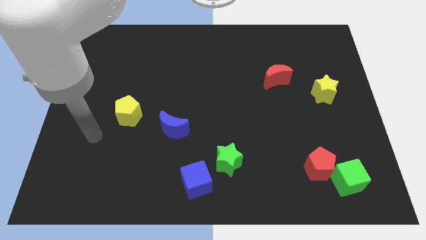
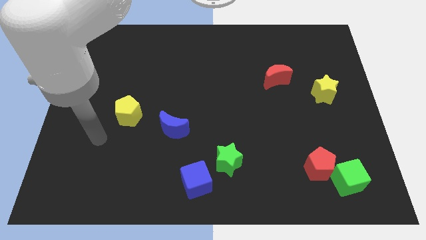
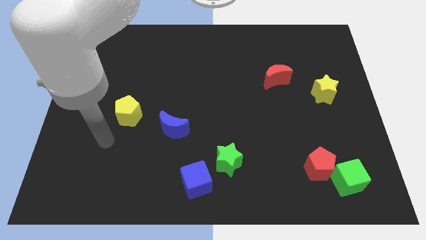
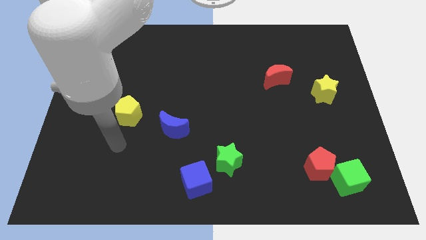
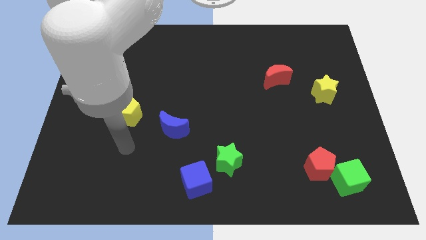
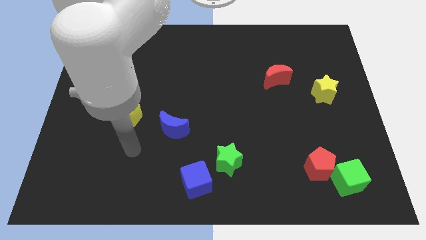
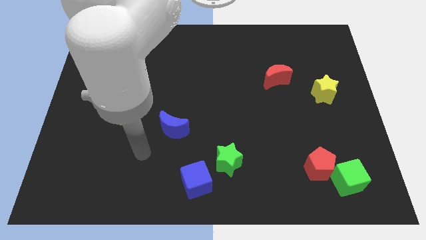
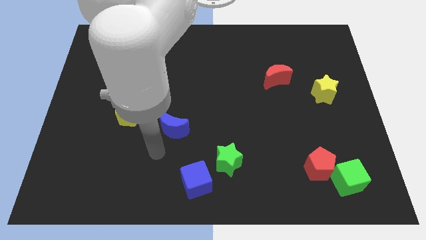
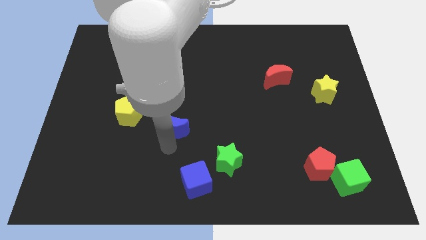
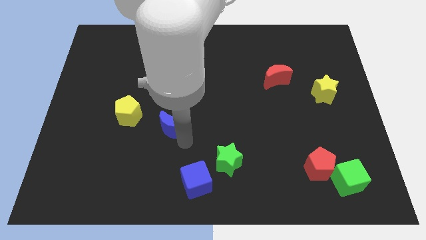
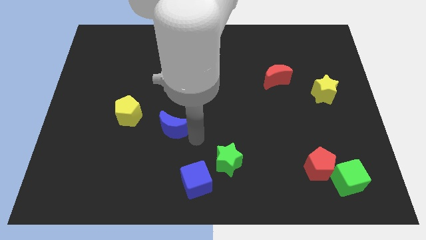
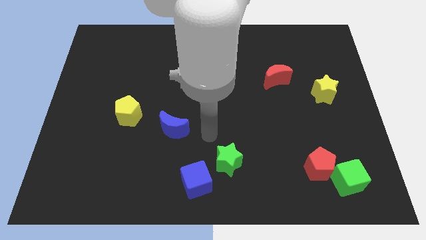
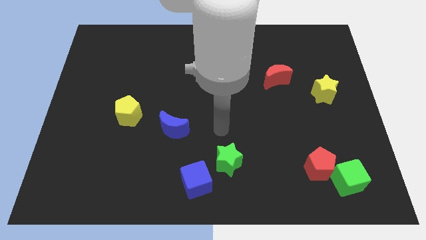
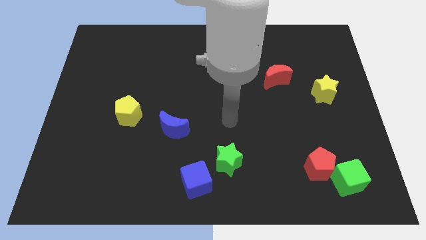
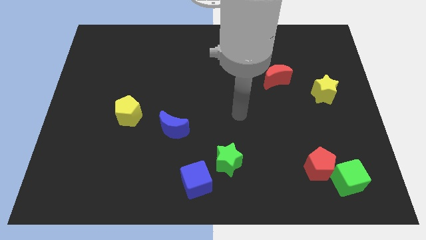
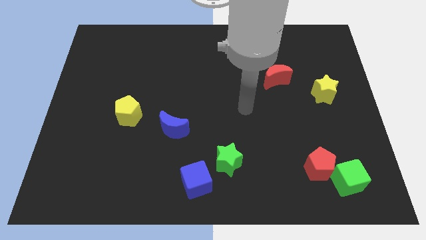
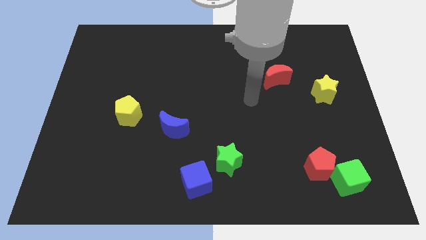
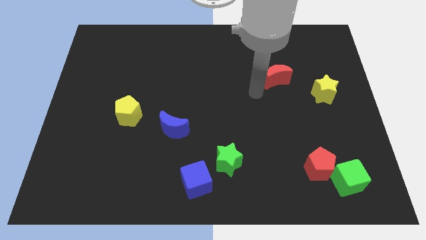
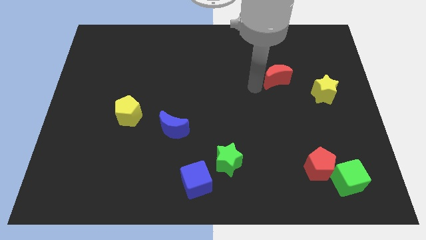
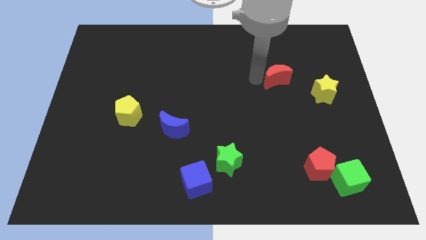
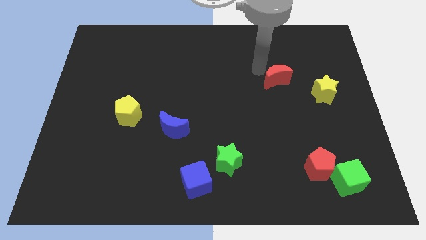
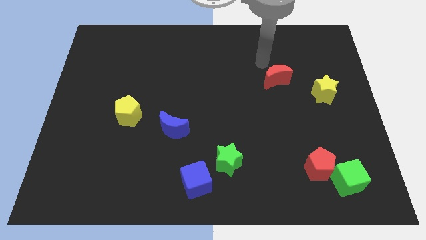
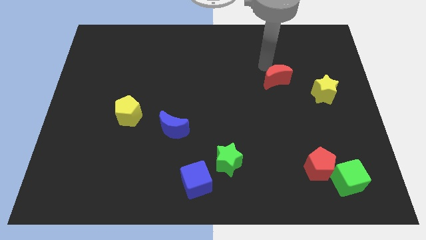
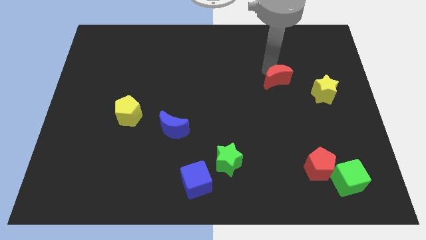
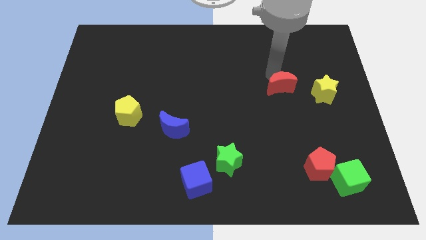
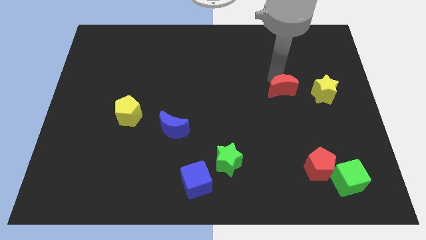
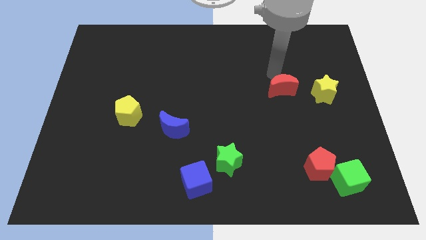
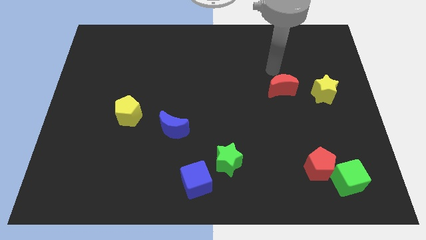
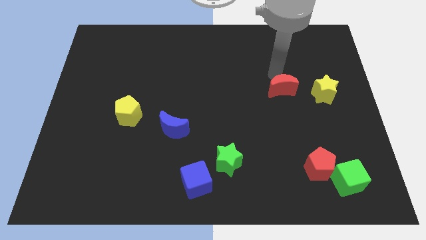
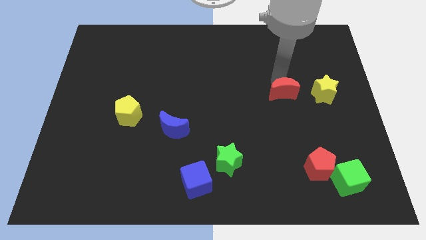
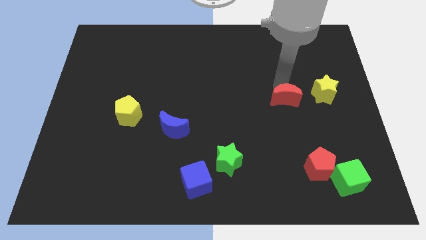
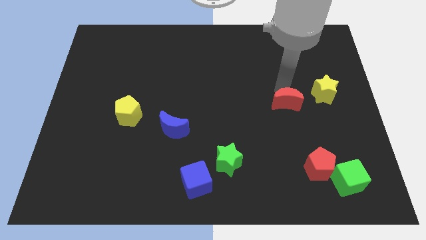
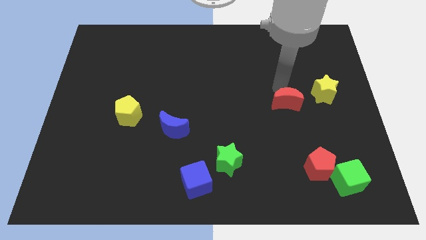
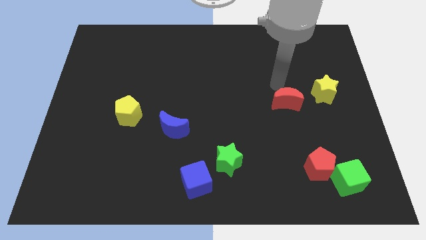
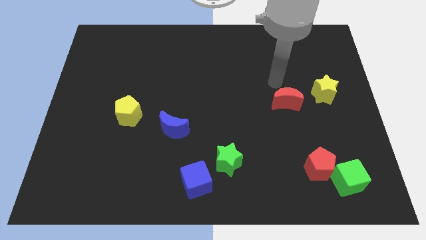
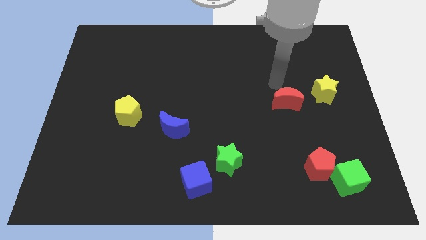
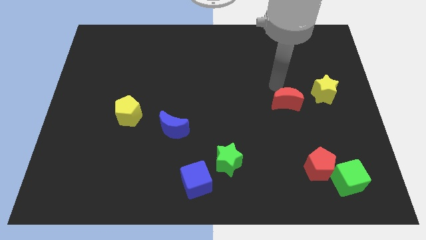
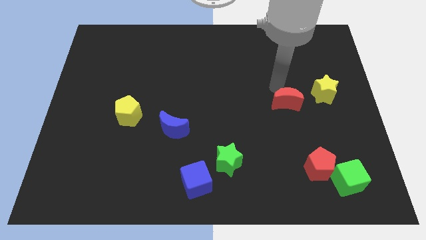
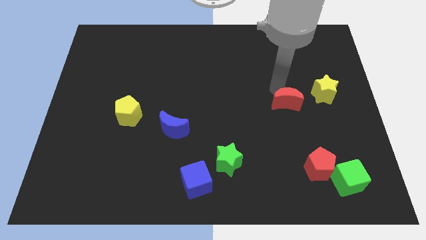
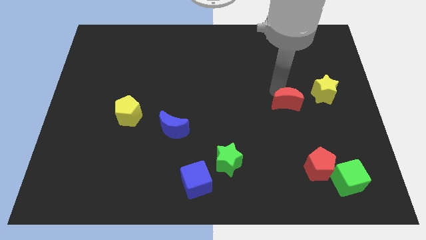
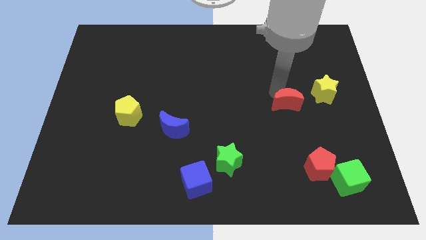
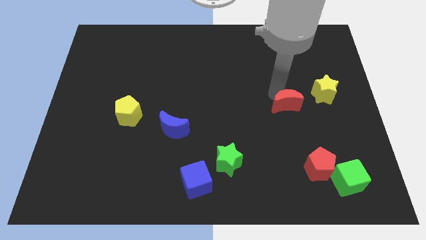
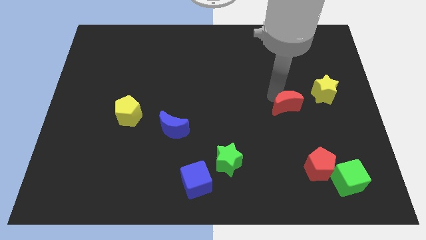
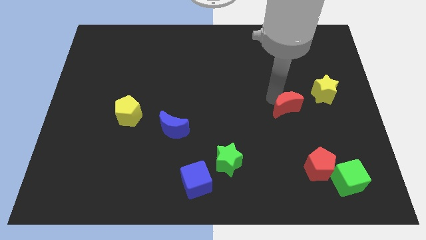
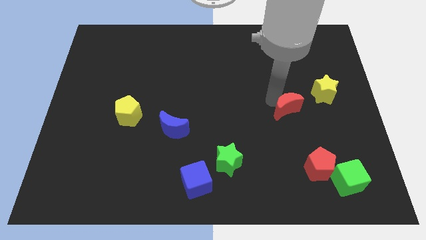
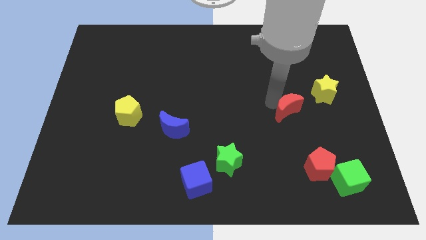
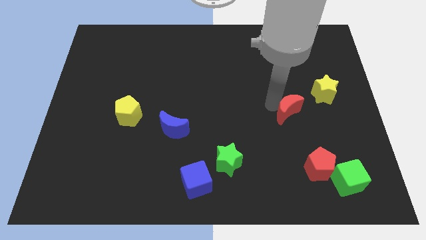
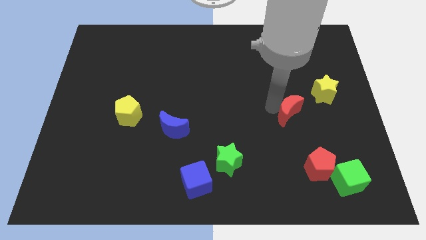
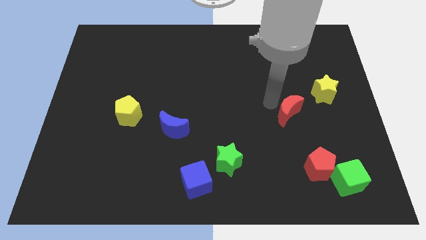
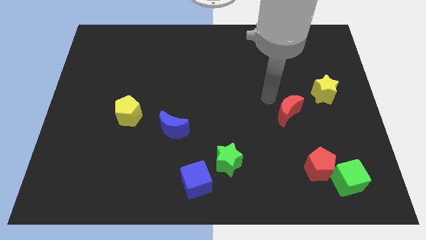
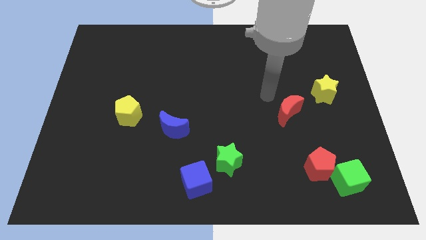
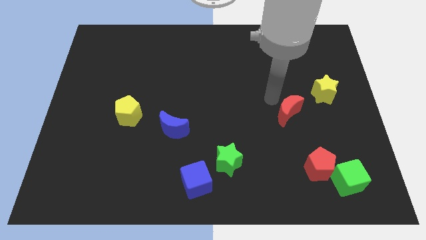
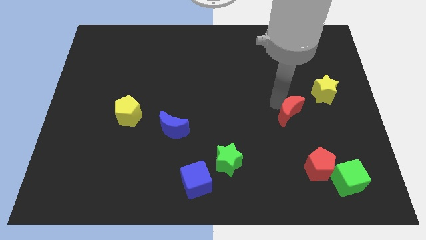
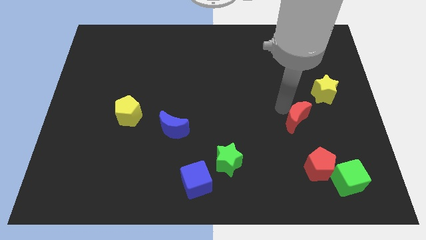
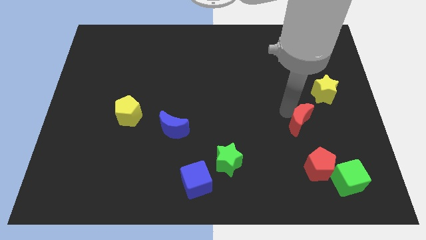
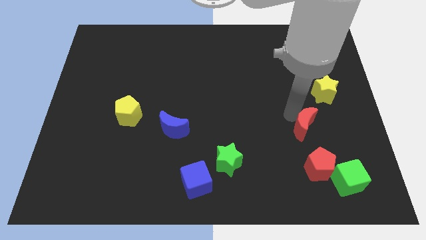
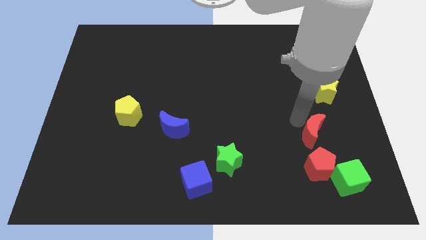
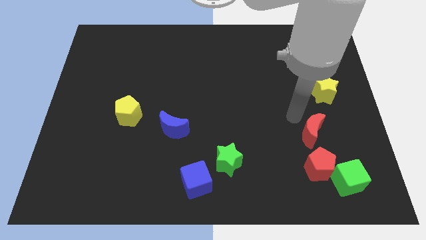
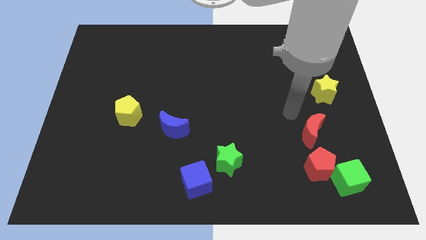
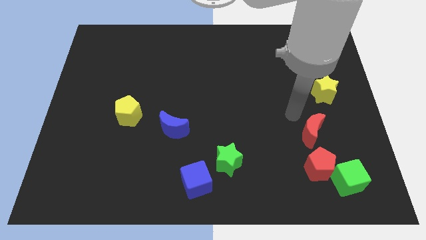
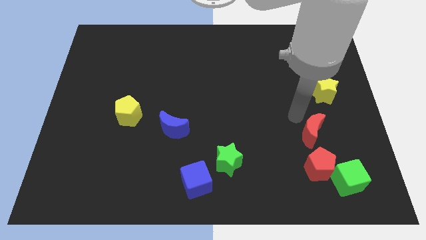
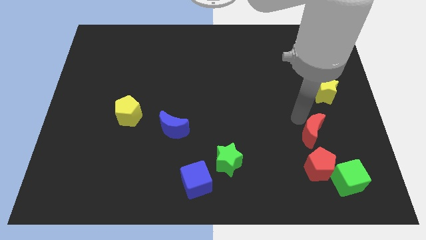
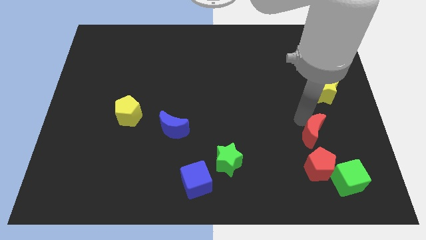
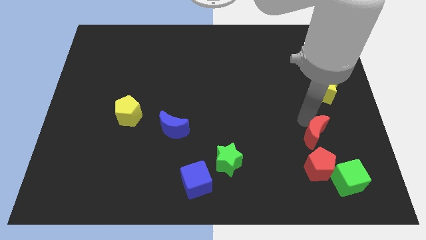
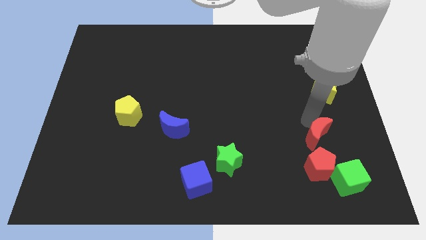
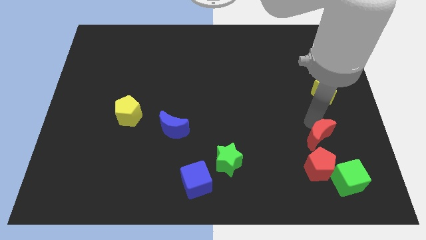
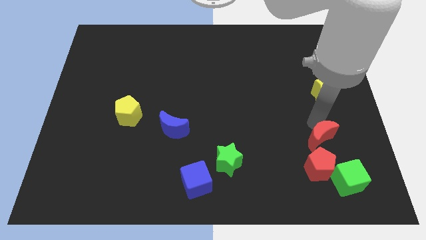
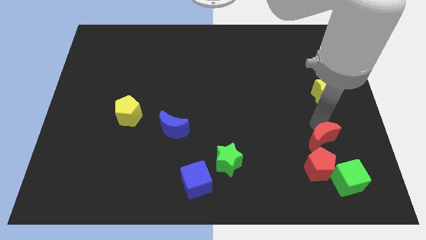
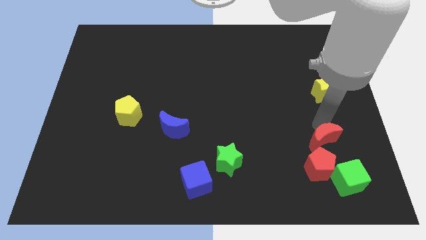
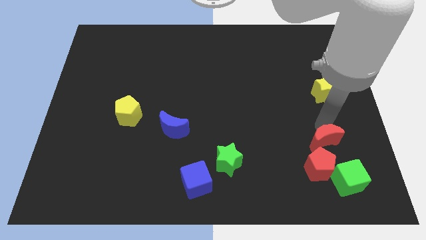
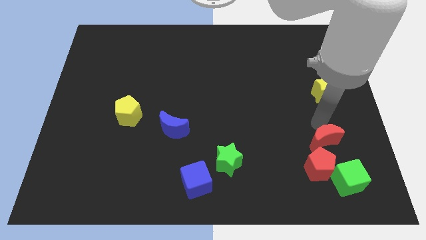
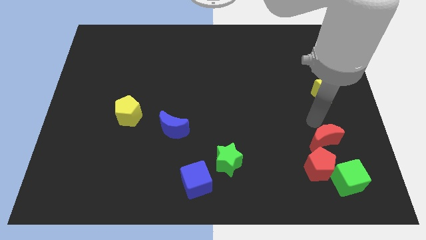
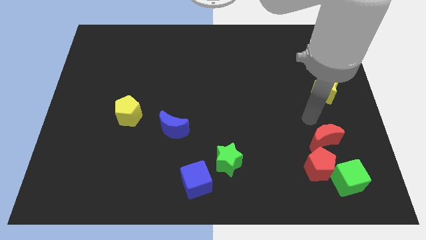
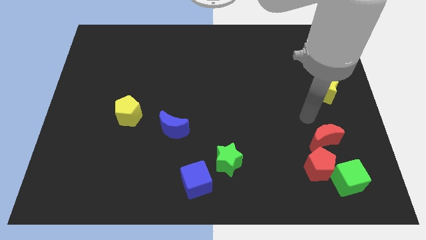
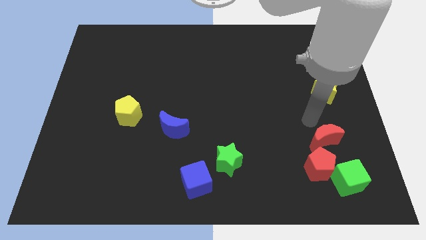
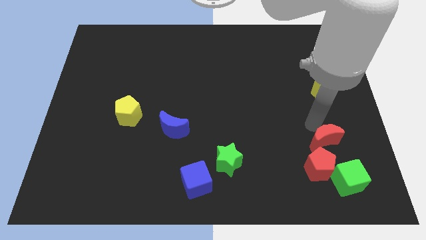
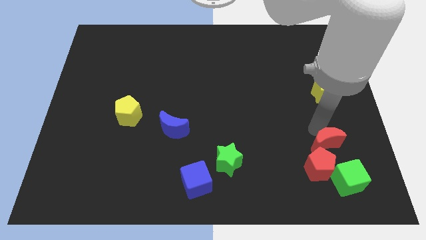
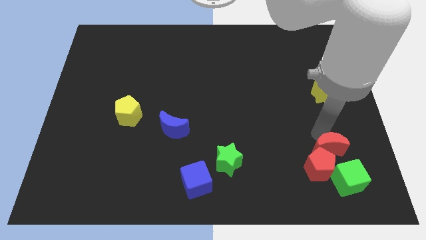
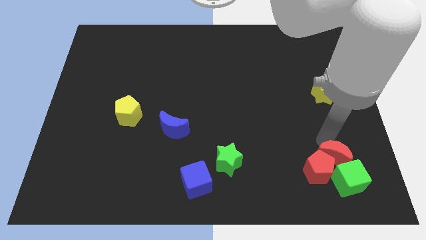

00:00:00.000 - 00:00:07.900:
put the red moon to the green cube
